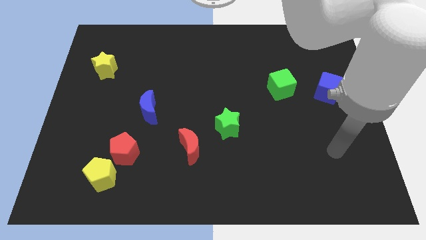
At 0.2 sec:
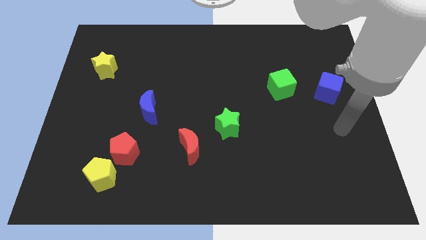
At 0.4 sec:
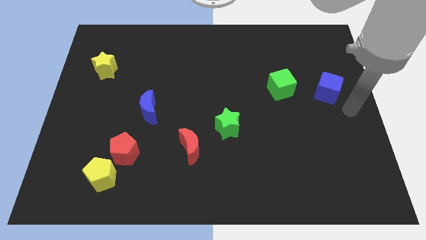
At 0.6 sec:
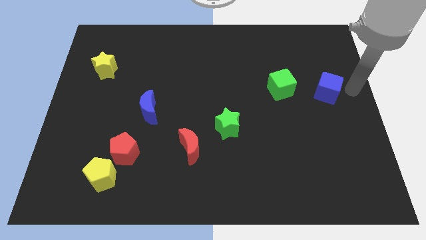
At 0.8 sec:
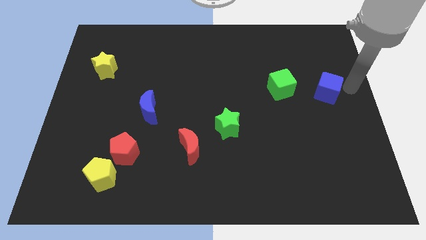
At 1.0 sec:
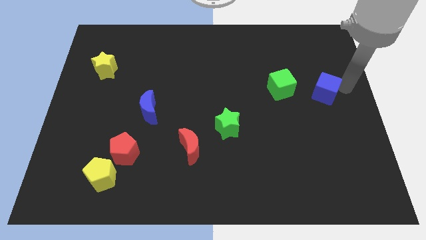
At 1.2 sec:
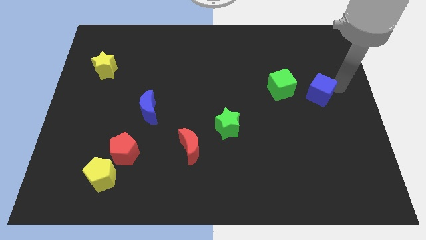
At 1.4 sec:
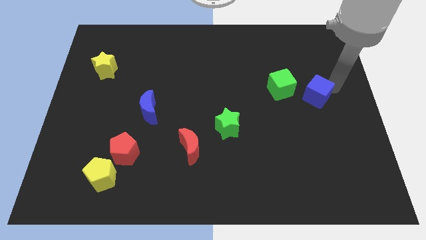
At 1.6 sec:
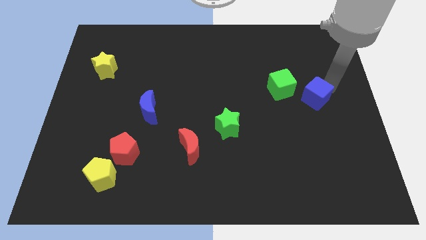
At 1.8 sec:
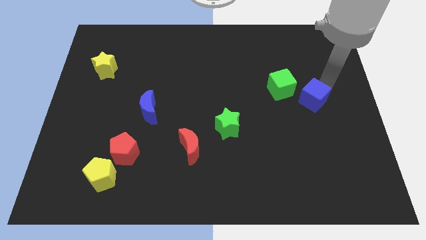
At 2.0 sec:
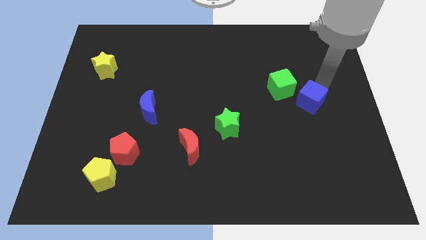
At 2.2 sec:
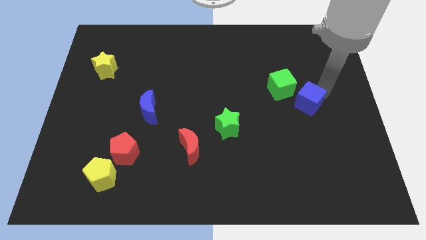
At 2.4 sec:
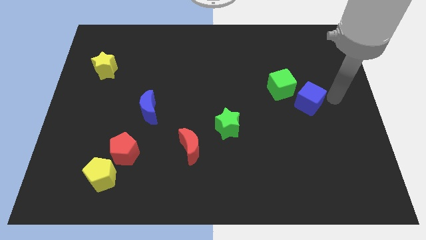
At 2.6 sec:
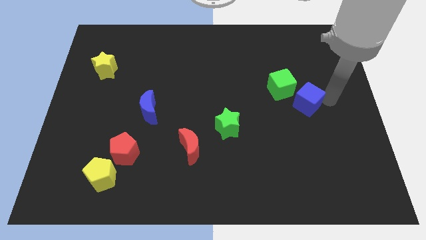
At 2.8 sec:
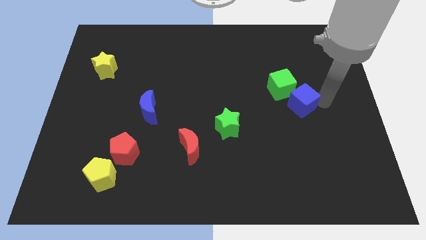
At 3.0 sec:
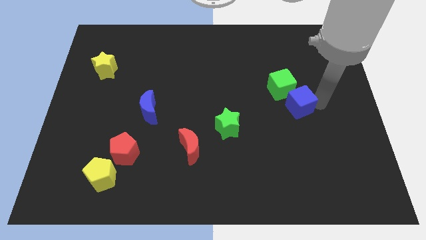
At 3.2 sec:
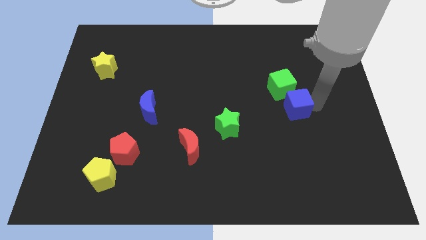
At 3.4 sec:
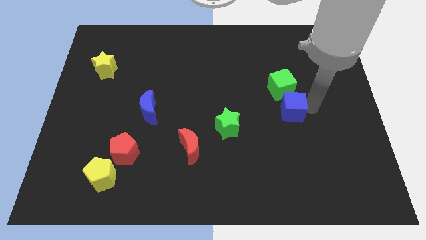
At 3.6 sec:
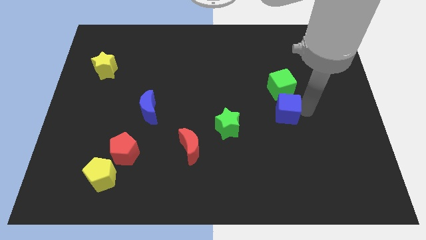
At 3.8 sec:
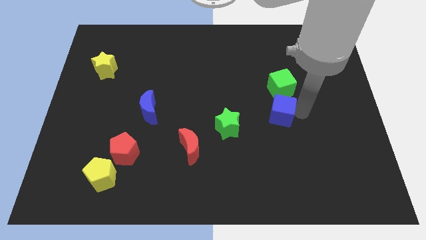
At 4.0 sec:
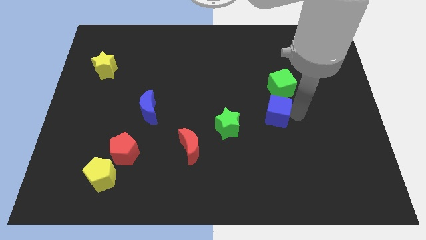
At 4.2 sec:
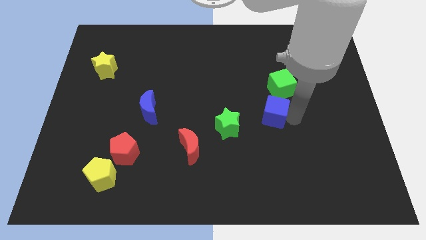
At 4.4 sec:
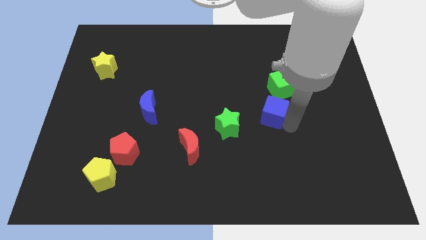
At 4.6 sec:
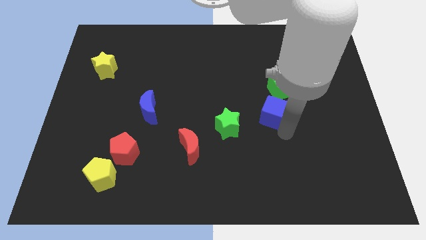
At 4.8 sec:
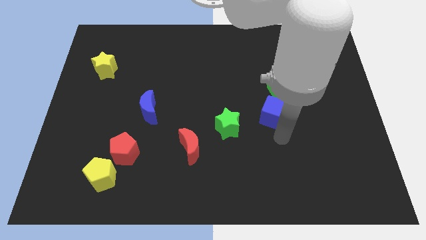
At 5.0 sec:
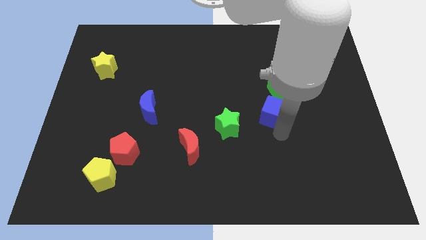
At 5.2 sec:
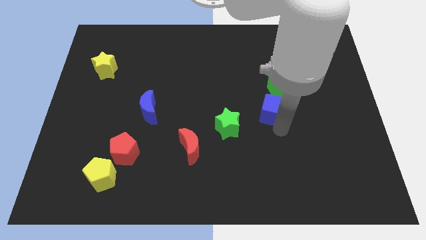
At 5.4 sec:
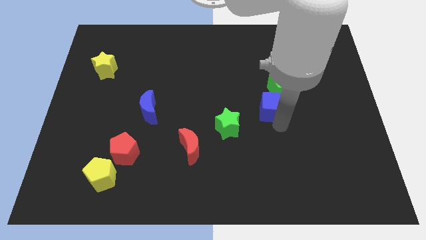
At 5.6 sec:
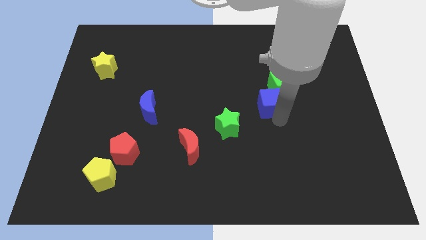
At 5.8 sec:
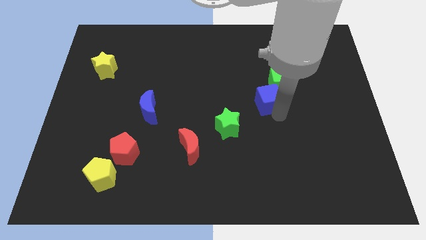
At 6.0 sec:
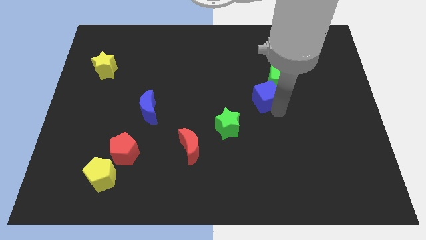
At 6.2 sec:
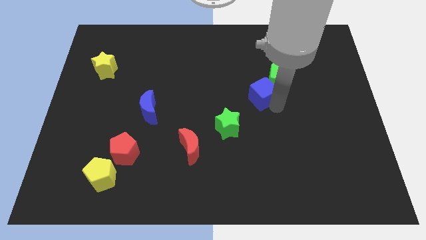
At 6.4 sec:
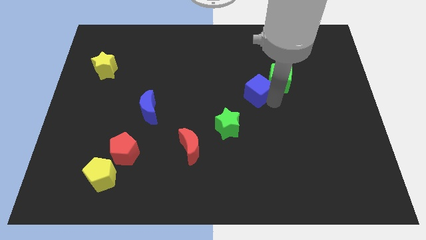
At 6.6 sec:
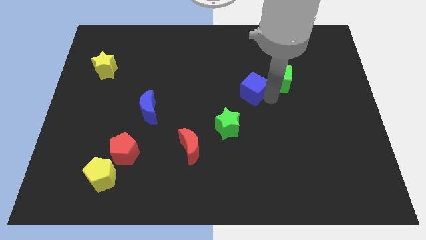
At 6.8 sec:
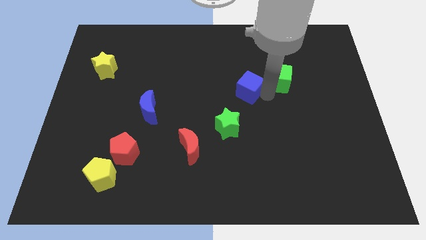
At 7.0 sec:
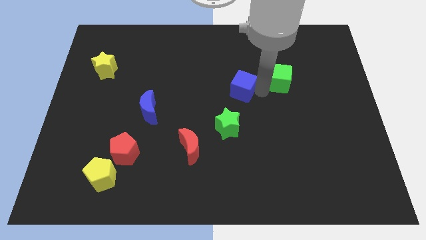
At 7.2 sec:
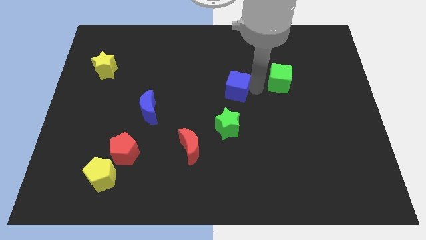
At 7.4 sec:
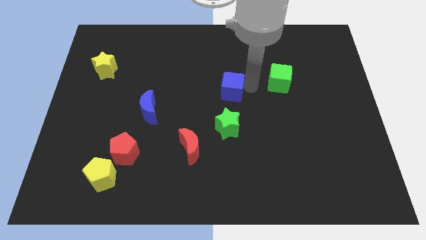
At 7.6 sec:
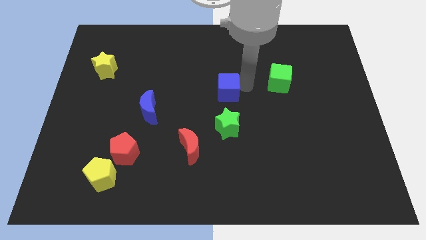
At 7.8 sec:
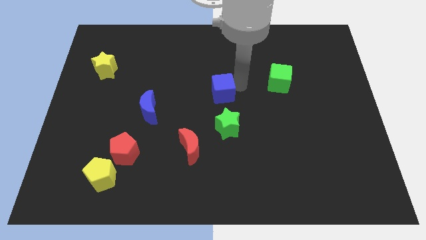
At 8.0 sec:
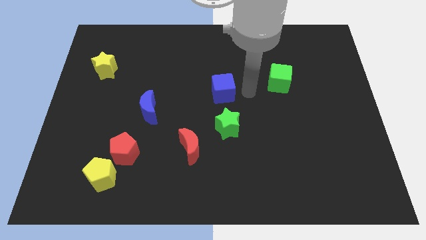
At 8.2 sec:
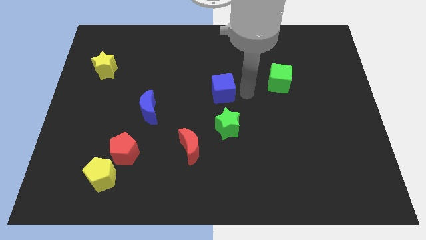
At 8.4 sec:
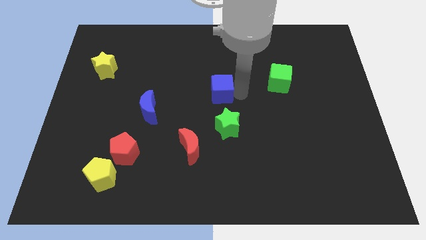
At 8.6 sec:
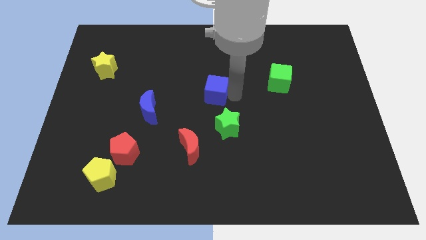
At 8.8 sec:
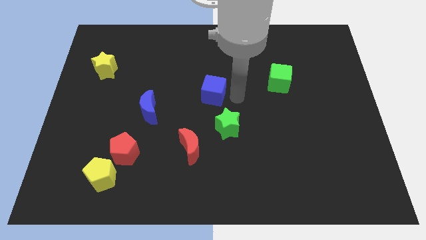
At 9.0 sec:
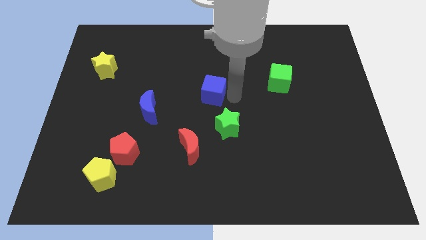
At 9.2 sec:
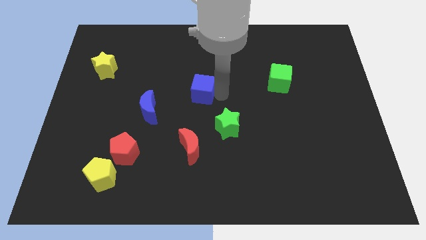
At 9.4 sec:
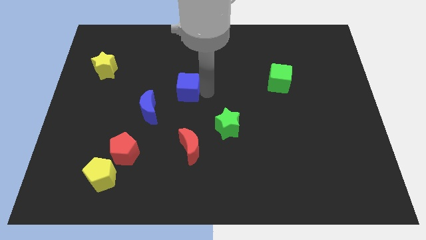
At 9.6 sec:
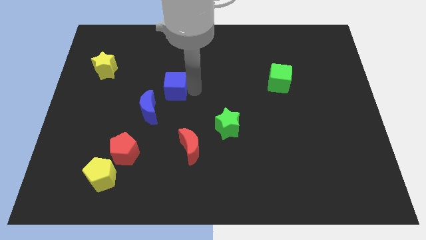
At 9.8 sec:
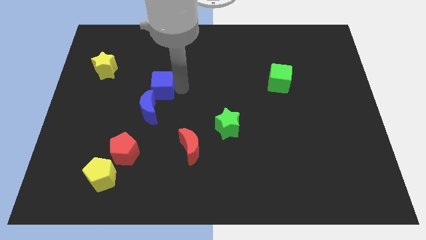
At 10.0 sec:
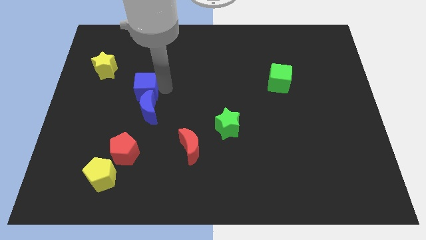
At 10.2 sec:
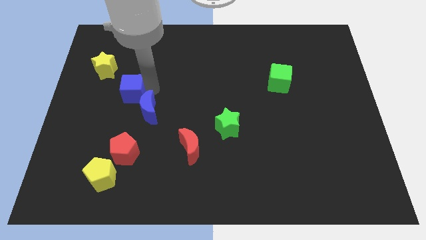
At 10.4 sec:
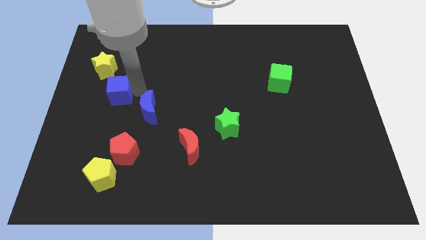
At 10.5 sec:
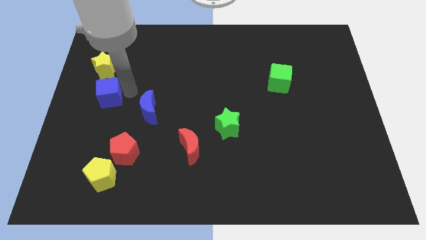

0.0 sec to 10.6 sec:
push the blue cube to the left side of the board
